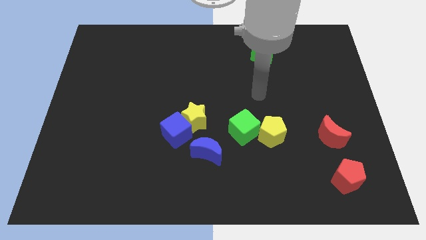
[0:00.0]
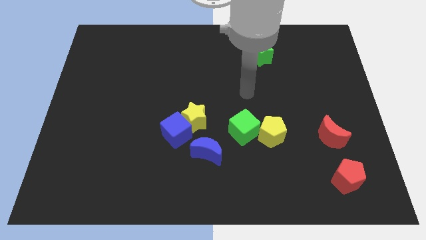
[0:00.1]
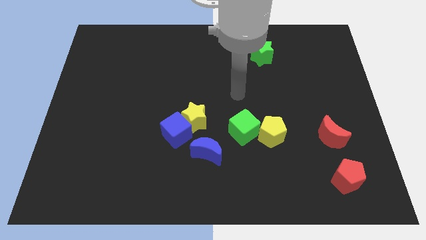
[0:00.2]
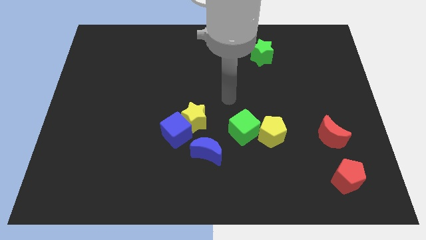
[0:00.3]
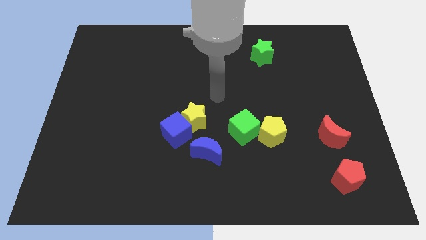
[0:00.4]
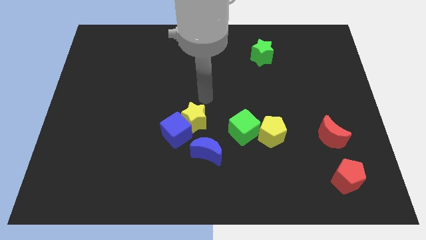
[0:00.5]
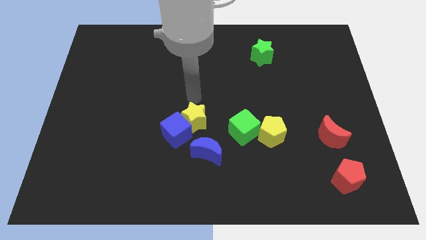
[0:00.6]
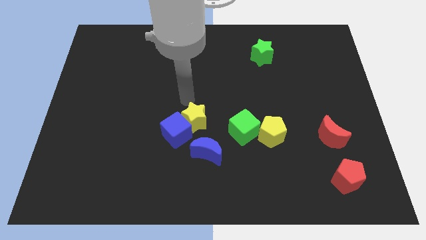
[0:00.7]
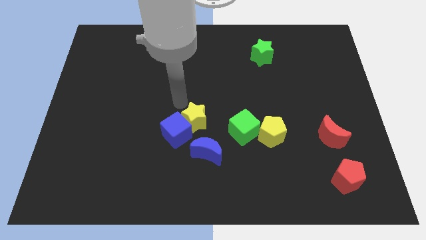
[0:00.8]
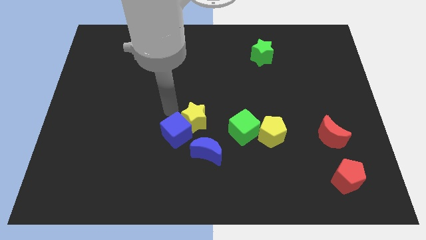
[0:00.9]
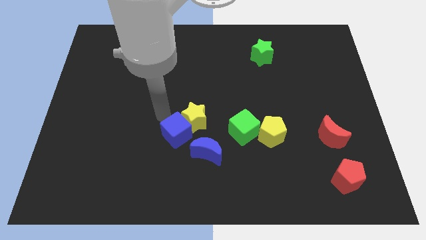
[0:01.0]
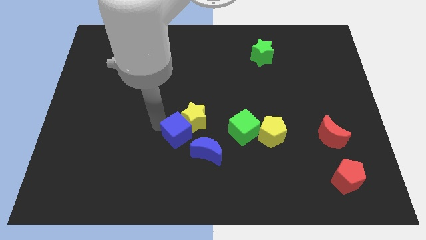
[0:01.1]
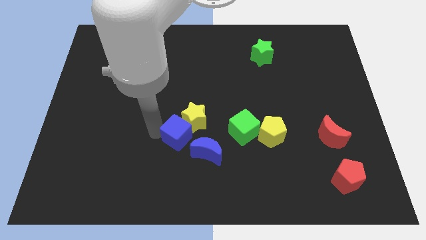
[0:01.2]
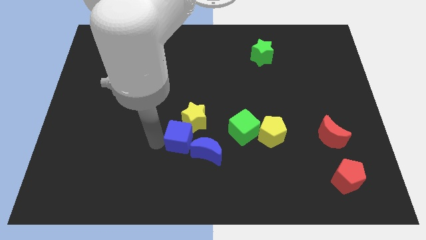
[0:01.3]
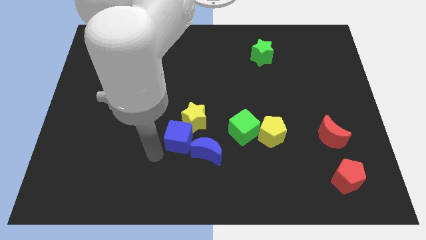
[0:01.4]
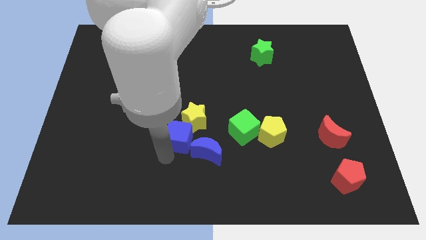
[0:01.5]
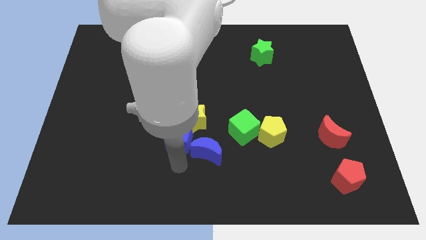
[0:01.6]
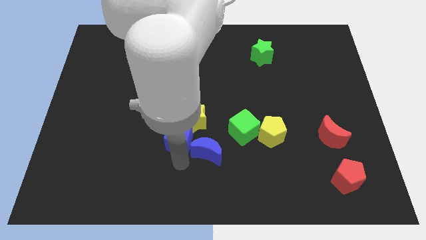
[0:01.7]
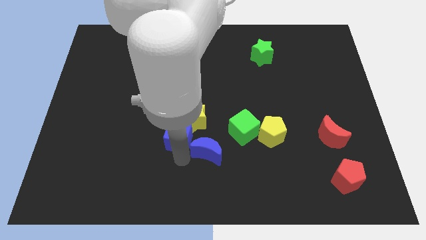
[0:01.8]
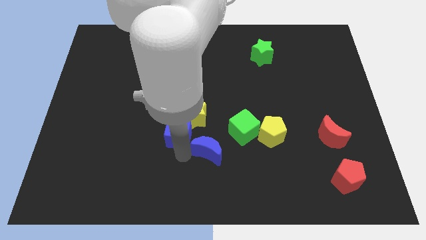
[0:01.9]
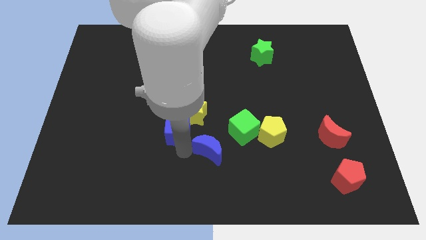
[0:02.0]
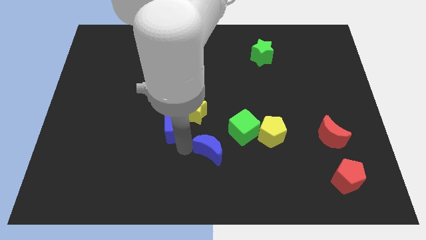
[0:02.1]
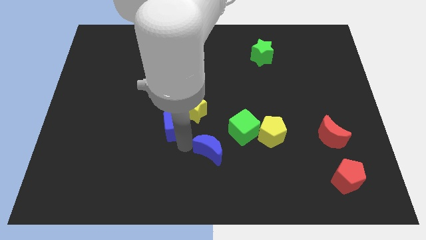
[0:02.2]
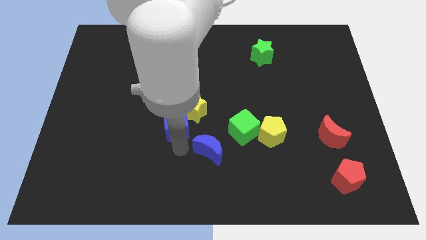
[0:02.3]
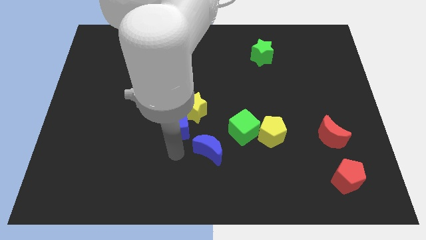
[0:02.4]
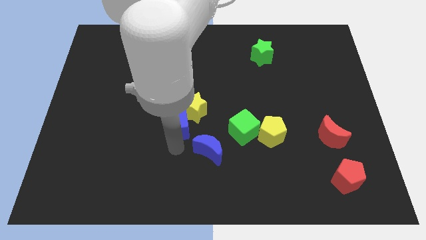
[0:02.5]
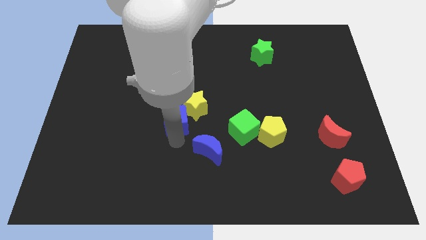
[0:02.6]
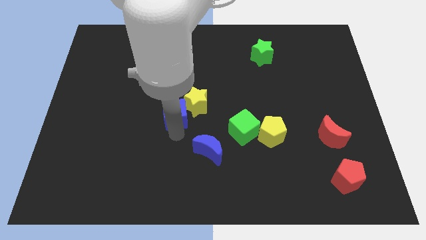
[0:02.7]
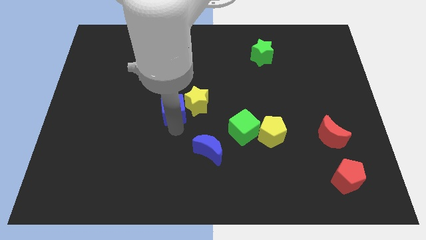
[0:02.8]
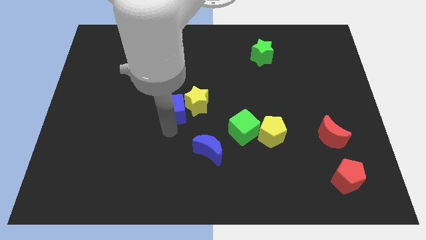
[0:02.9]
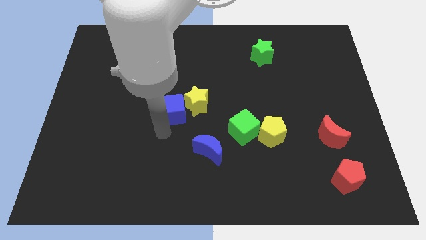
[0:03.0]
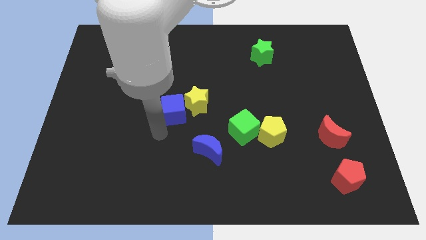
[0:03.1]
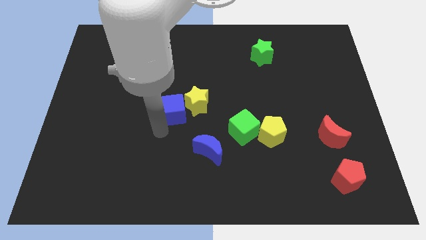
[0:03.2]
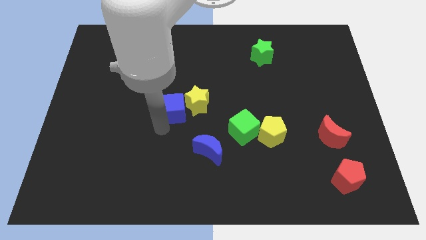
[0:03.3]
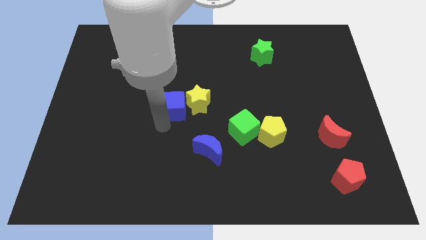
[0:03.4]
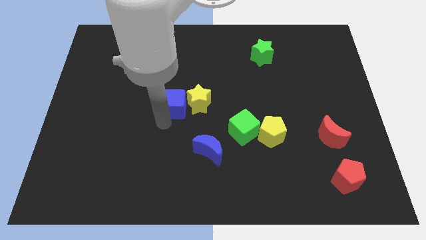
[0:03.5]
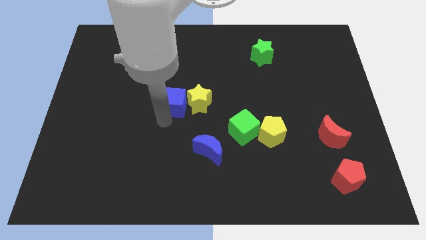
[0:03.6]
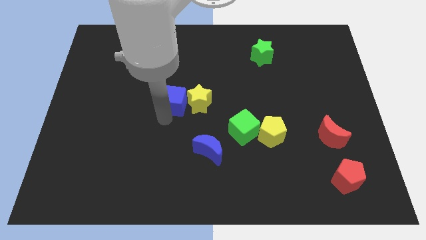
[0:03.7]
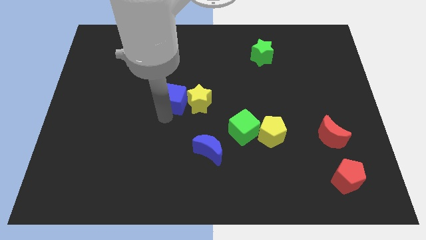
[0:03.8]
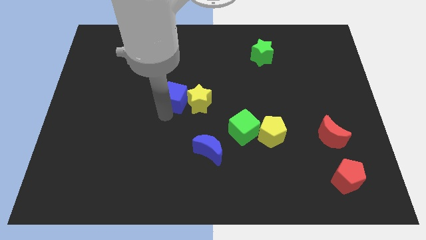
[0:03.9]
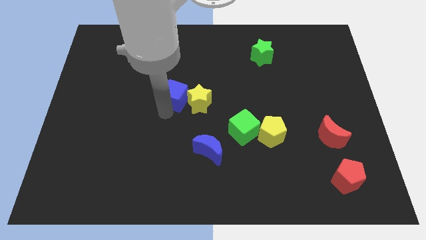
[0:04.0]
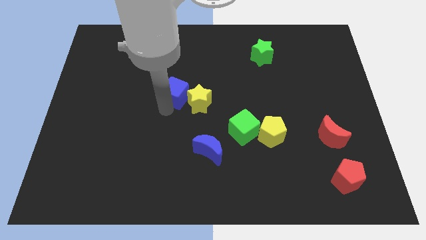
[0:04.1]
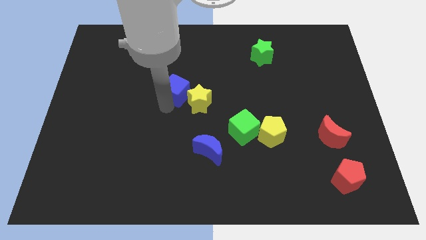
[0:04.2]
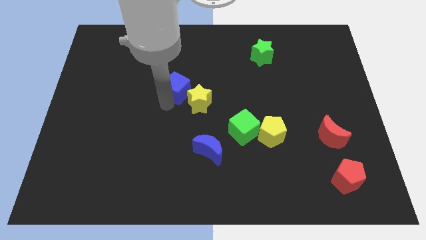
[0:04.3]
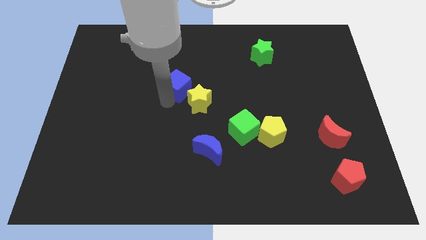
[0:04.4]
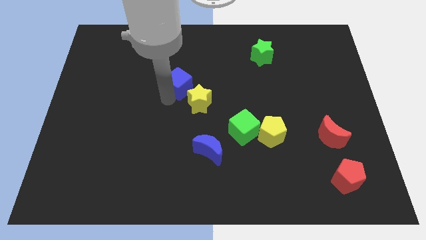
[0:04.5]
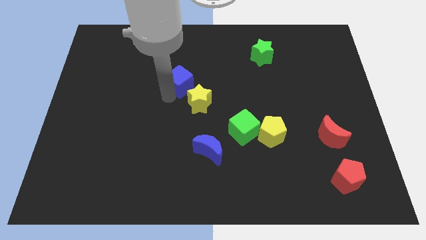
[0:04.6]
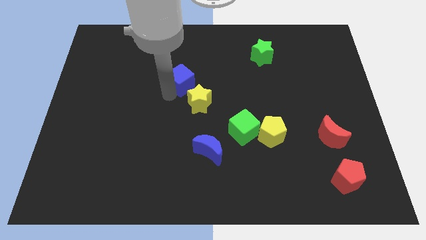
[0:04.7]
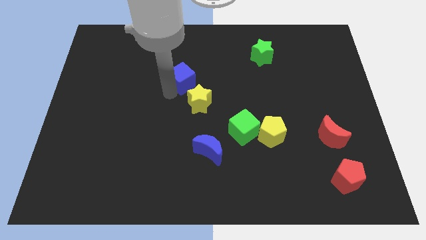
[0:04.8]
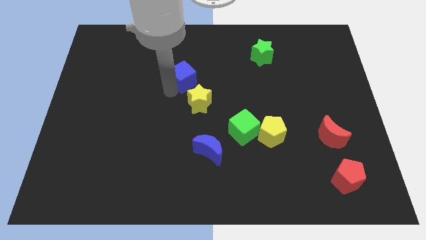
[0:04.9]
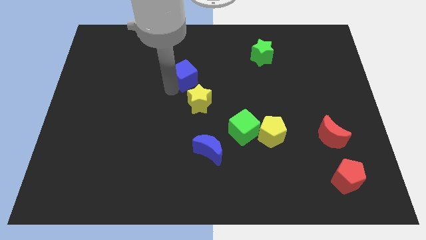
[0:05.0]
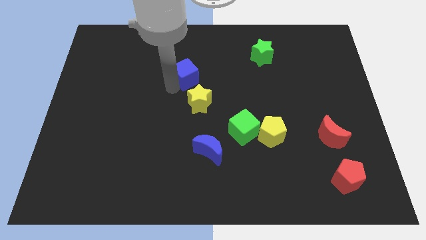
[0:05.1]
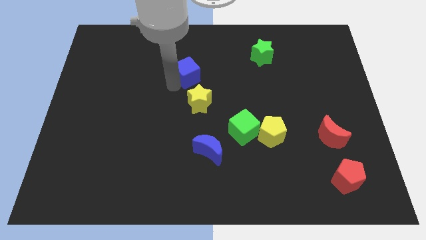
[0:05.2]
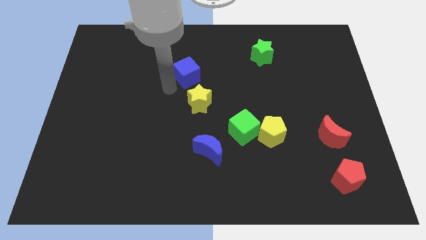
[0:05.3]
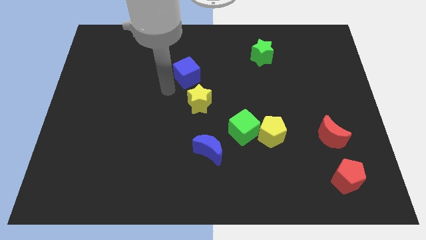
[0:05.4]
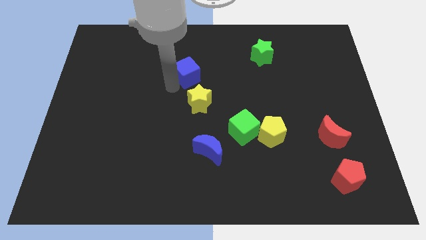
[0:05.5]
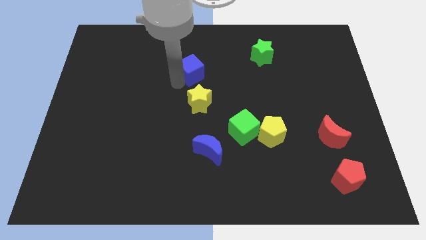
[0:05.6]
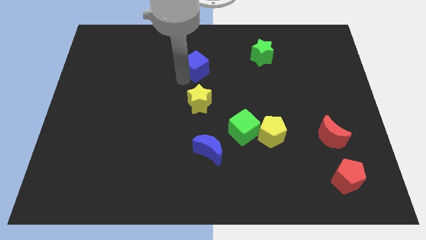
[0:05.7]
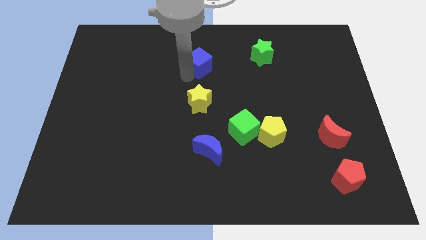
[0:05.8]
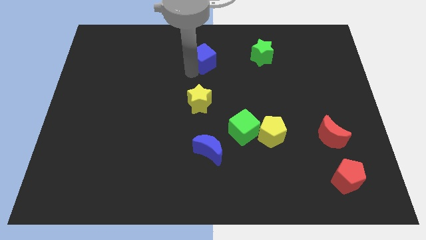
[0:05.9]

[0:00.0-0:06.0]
push the blue cube to the left side of the green star

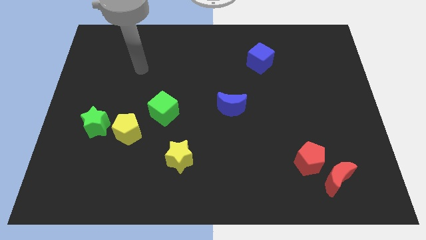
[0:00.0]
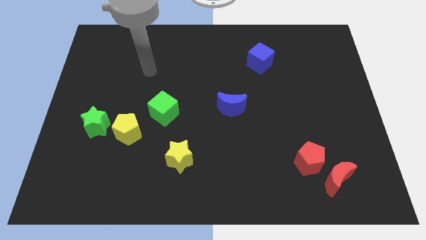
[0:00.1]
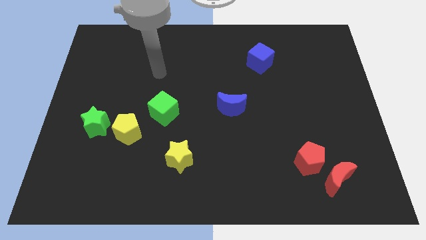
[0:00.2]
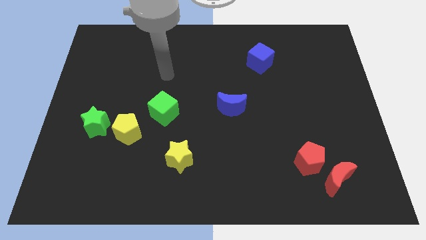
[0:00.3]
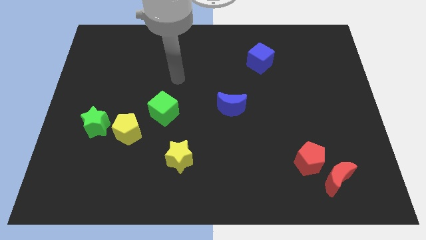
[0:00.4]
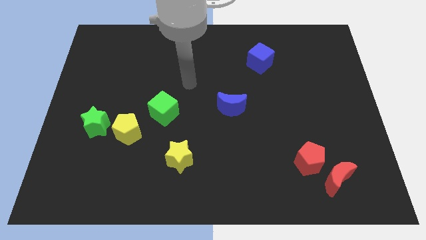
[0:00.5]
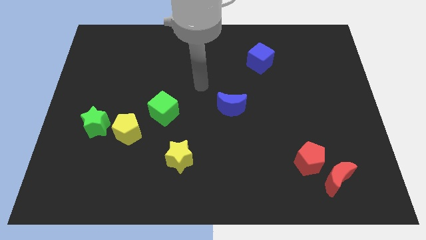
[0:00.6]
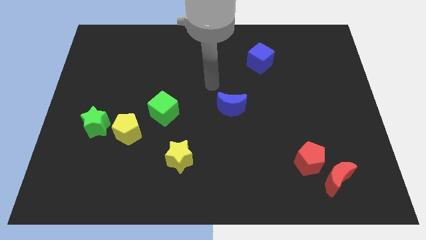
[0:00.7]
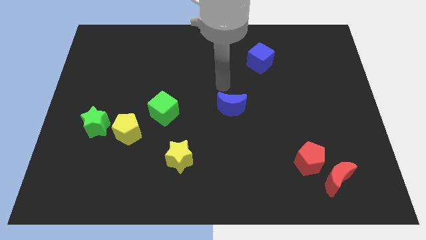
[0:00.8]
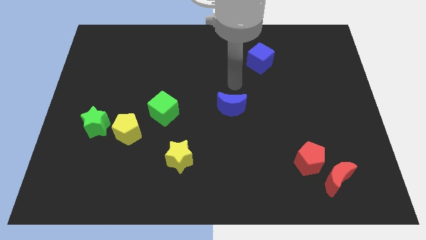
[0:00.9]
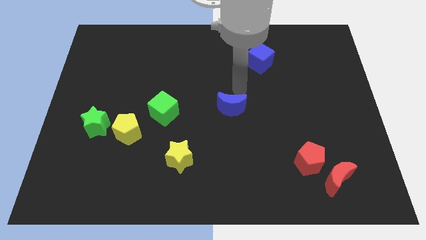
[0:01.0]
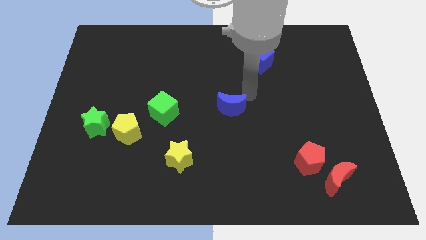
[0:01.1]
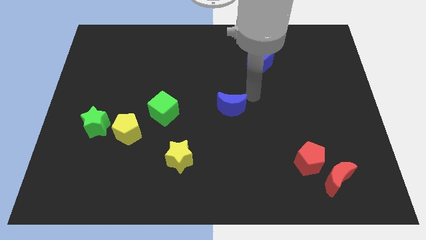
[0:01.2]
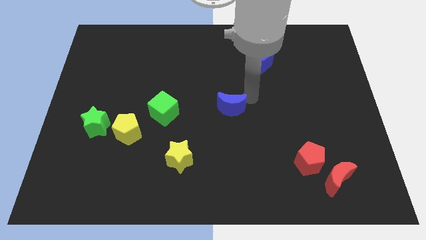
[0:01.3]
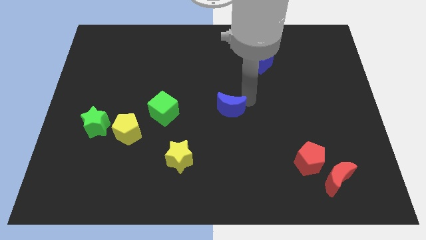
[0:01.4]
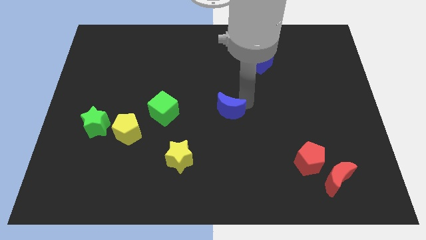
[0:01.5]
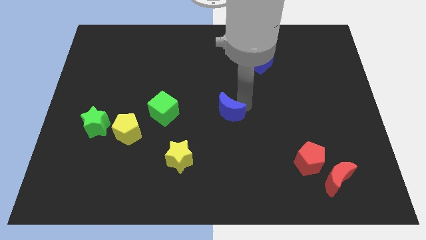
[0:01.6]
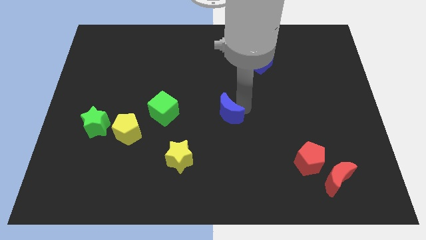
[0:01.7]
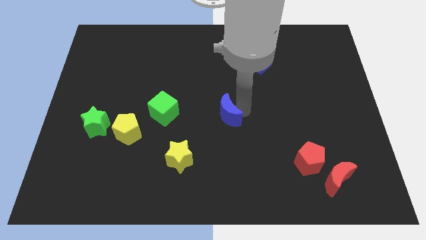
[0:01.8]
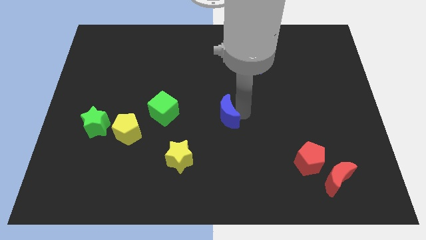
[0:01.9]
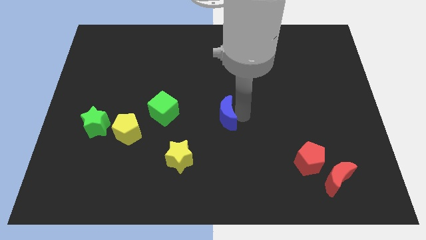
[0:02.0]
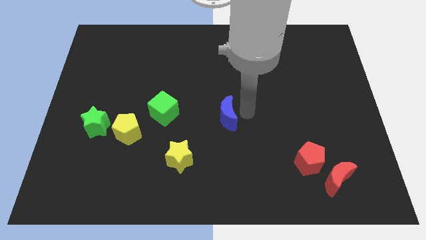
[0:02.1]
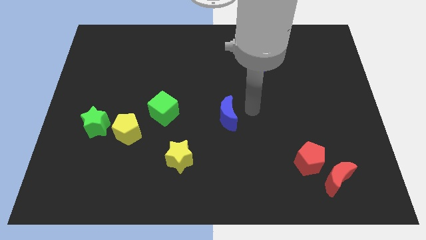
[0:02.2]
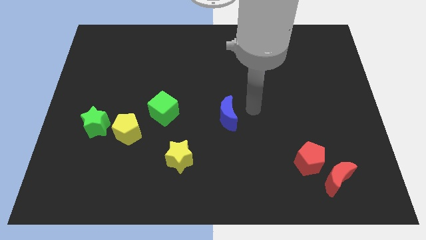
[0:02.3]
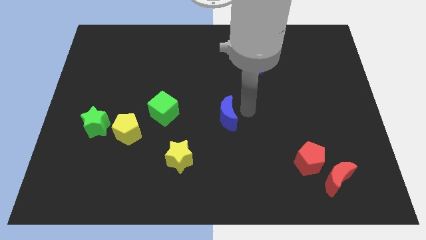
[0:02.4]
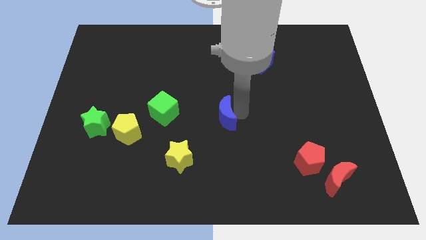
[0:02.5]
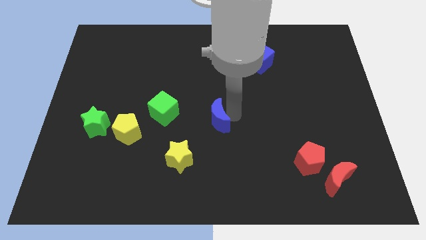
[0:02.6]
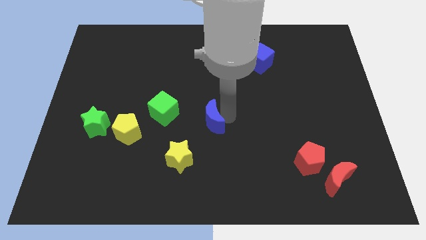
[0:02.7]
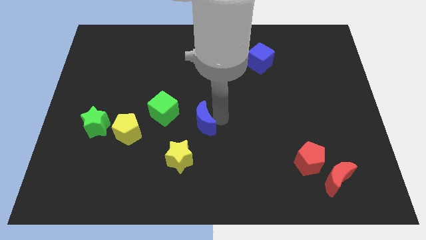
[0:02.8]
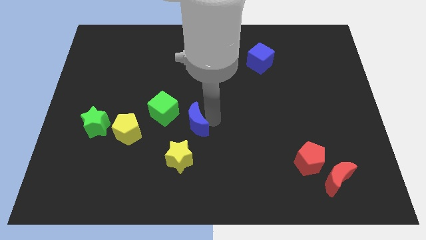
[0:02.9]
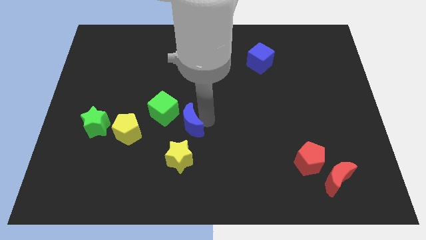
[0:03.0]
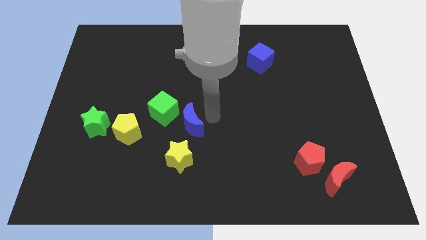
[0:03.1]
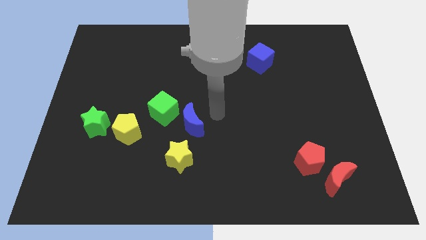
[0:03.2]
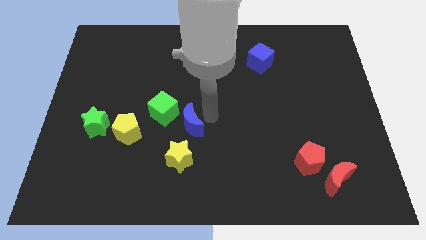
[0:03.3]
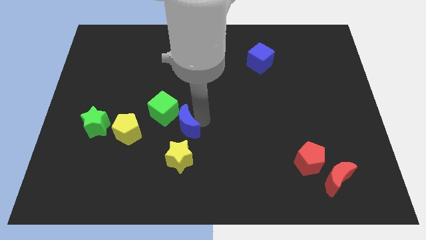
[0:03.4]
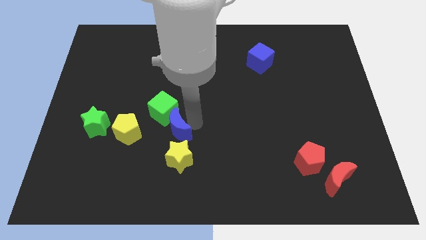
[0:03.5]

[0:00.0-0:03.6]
put the blue moon diagonally up and to the left of the yellow star
